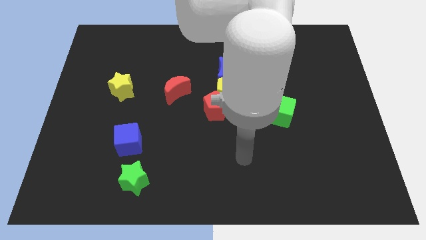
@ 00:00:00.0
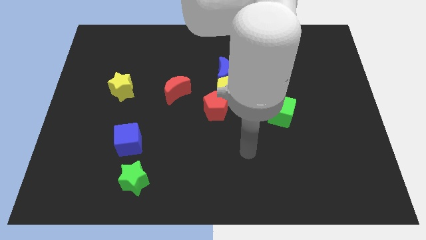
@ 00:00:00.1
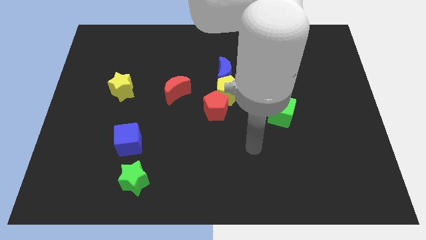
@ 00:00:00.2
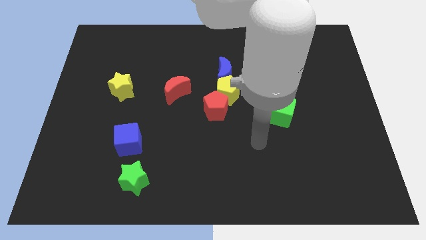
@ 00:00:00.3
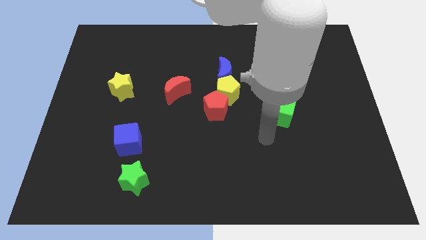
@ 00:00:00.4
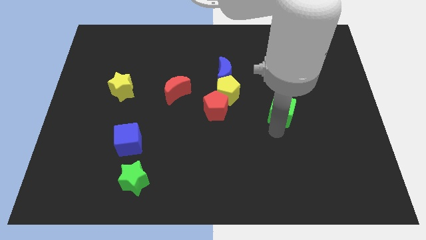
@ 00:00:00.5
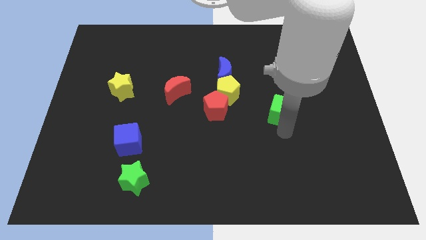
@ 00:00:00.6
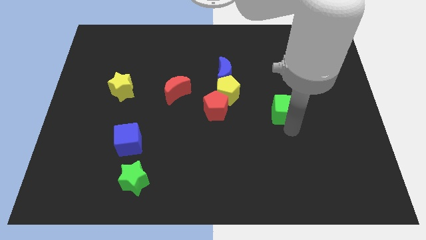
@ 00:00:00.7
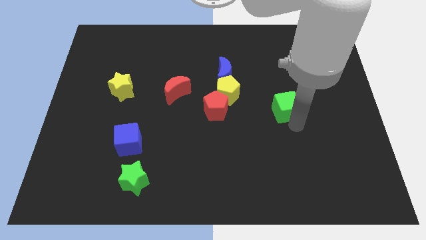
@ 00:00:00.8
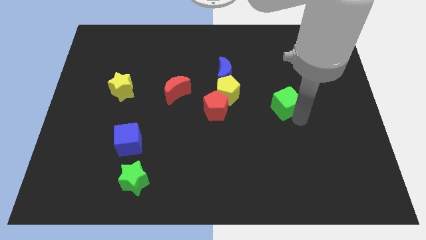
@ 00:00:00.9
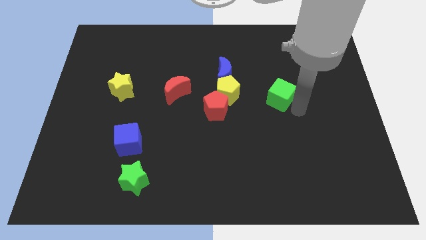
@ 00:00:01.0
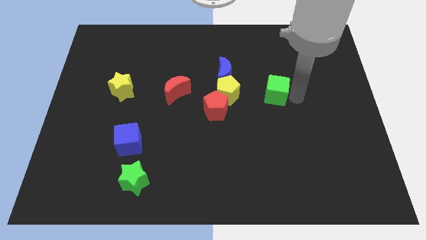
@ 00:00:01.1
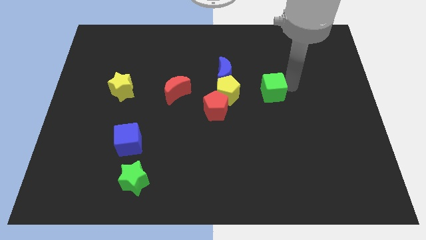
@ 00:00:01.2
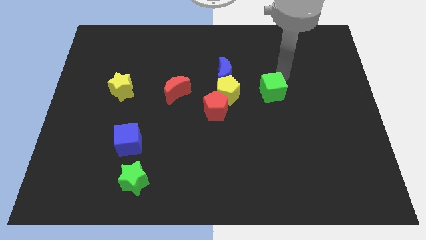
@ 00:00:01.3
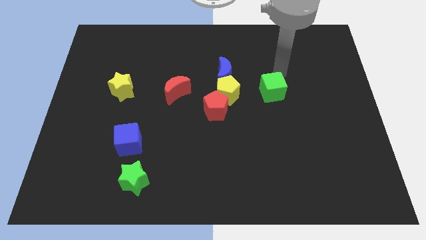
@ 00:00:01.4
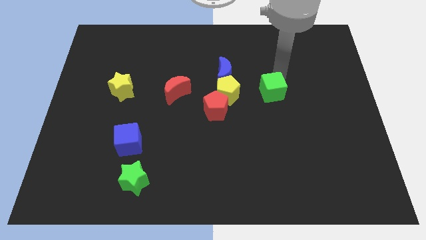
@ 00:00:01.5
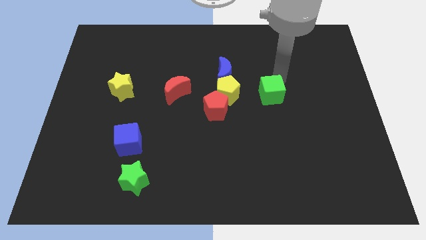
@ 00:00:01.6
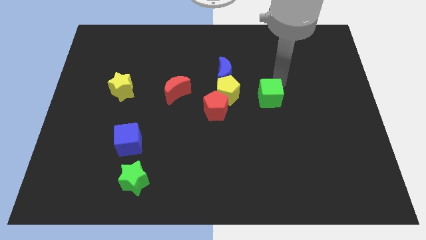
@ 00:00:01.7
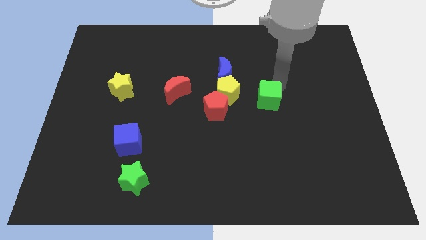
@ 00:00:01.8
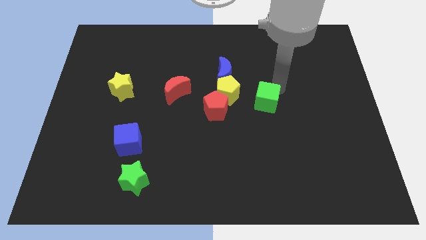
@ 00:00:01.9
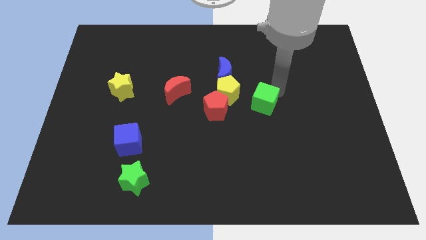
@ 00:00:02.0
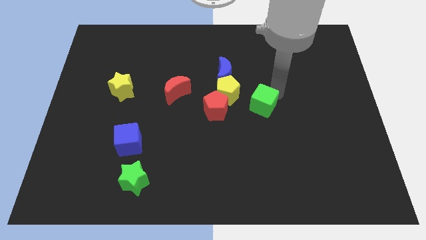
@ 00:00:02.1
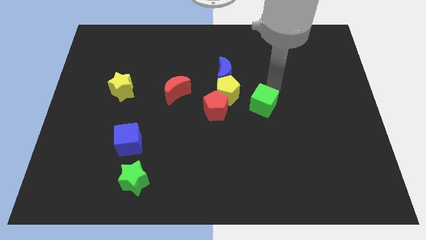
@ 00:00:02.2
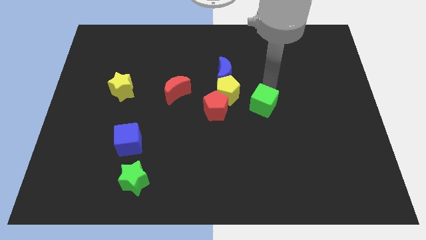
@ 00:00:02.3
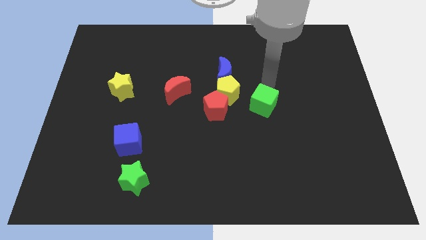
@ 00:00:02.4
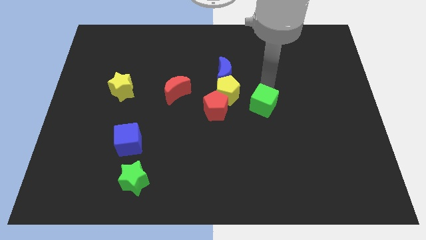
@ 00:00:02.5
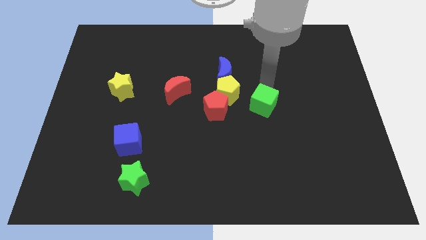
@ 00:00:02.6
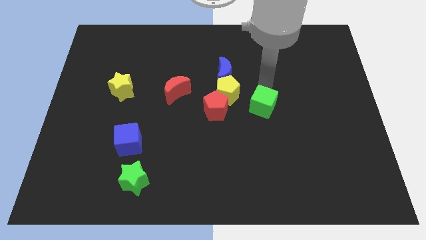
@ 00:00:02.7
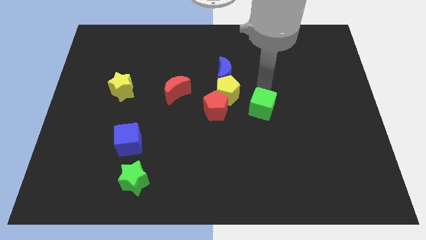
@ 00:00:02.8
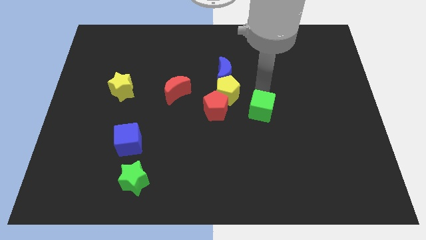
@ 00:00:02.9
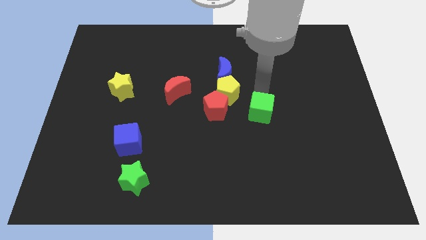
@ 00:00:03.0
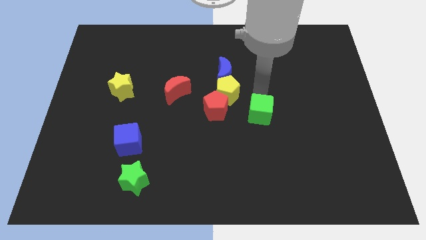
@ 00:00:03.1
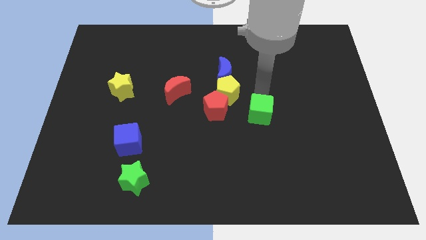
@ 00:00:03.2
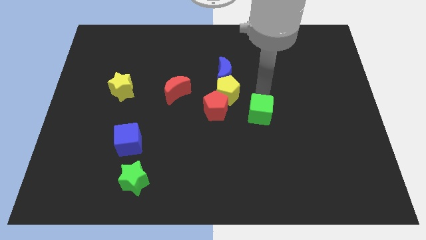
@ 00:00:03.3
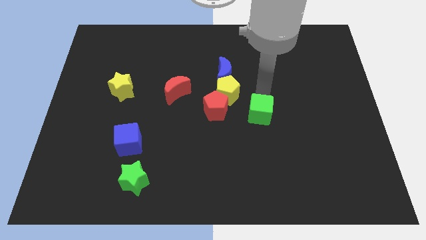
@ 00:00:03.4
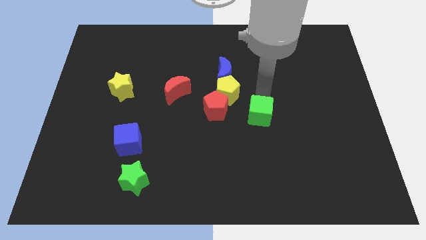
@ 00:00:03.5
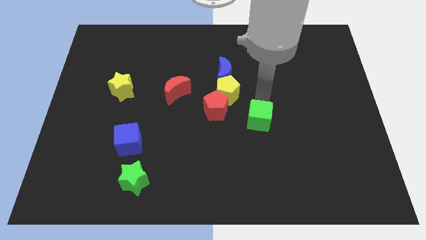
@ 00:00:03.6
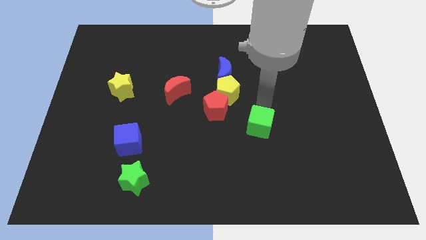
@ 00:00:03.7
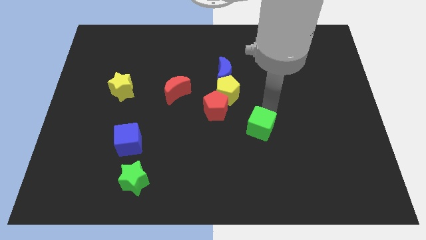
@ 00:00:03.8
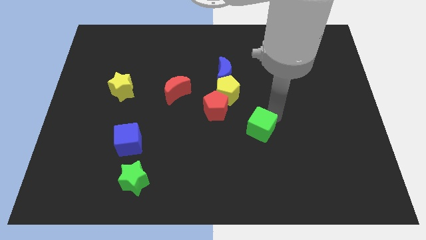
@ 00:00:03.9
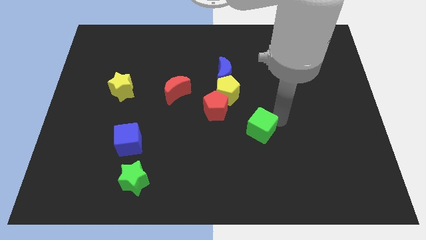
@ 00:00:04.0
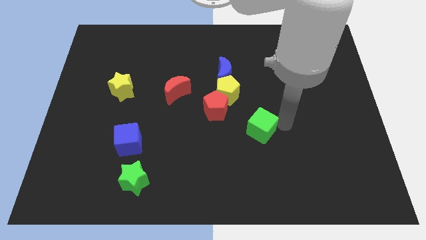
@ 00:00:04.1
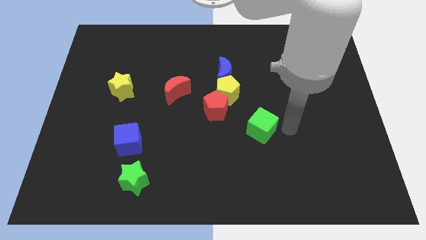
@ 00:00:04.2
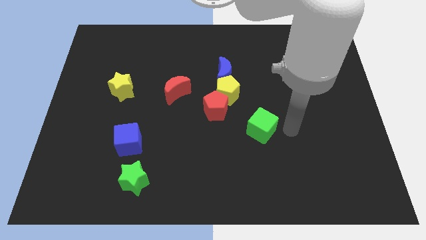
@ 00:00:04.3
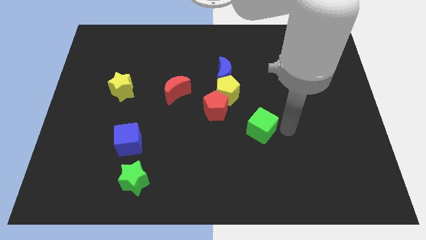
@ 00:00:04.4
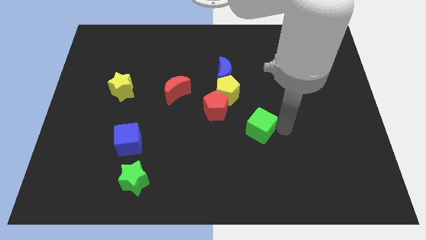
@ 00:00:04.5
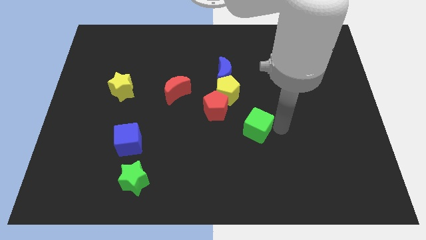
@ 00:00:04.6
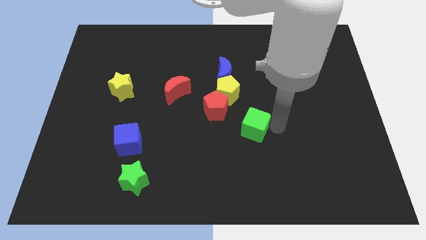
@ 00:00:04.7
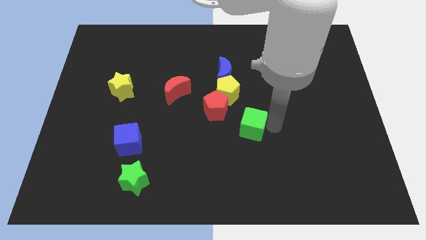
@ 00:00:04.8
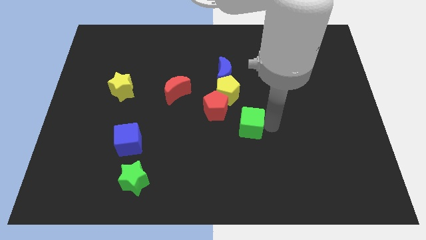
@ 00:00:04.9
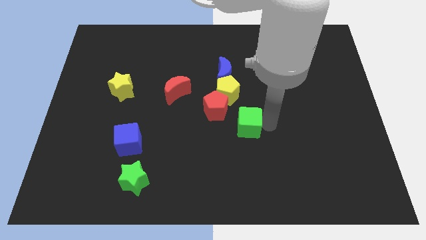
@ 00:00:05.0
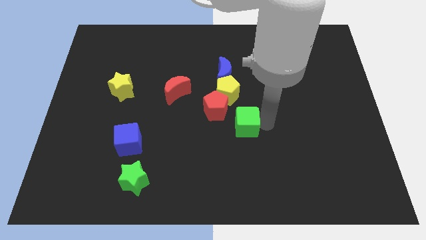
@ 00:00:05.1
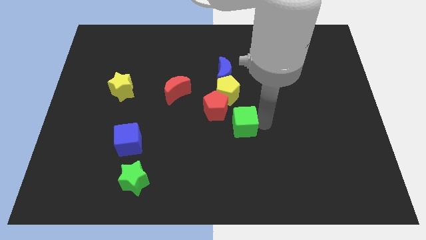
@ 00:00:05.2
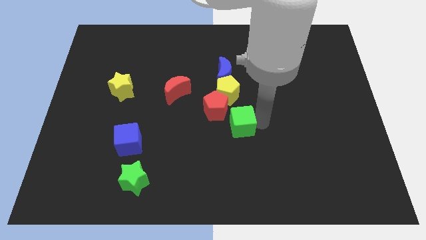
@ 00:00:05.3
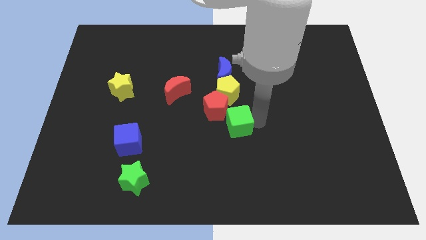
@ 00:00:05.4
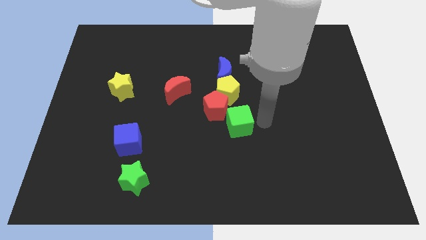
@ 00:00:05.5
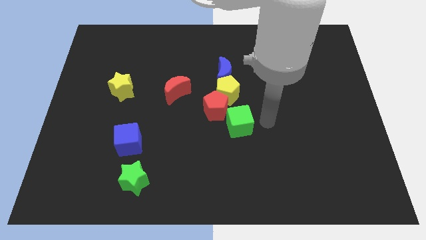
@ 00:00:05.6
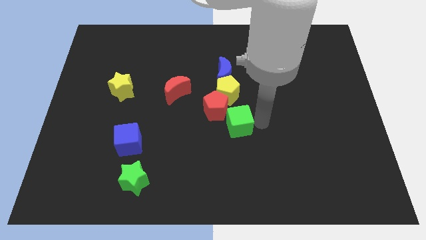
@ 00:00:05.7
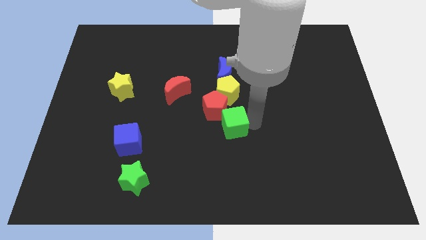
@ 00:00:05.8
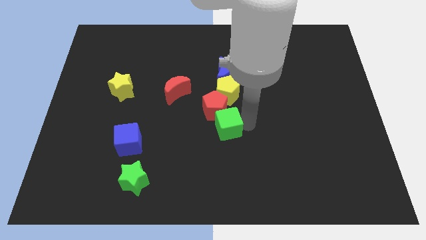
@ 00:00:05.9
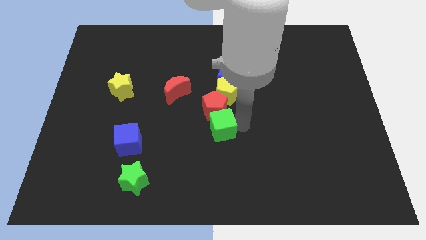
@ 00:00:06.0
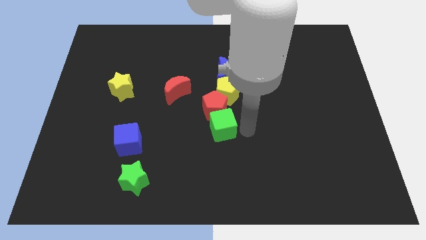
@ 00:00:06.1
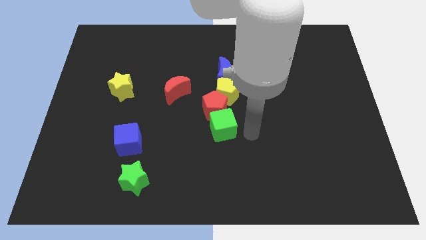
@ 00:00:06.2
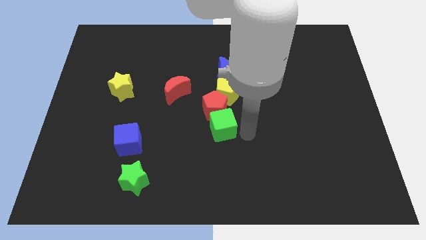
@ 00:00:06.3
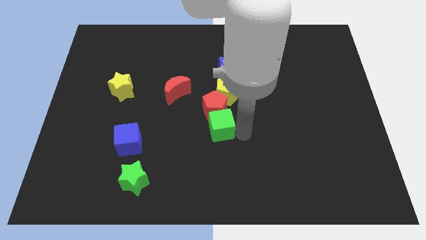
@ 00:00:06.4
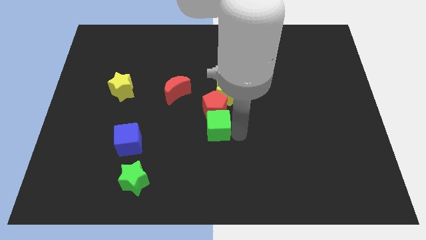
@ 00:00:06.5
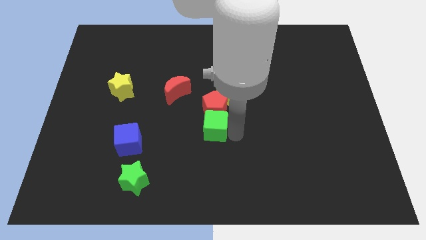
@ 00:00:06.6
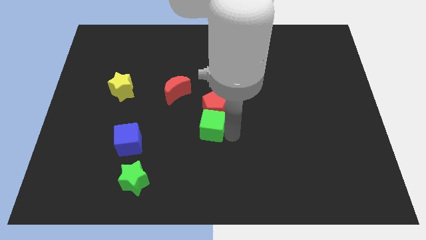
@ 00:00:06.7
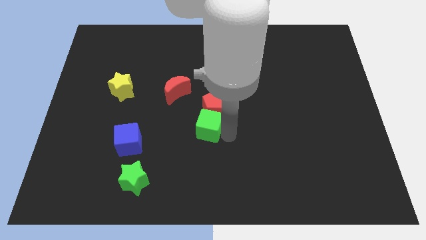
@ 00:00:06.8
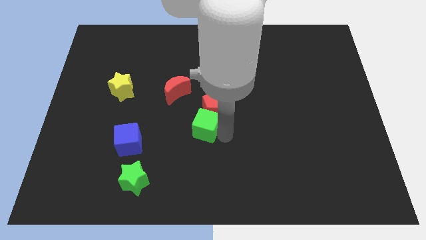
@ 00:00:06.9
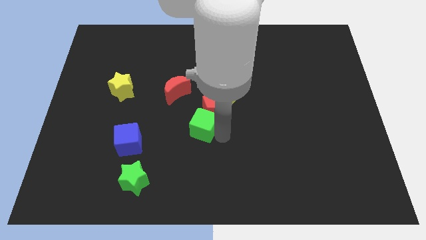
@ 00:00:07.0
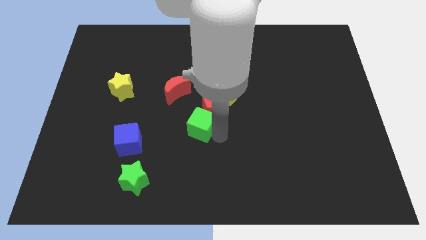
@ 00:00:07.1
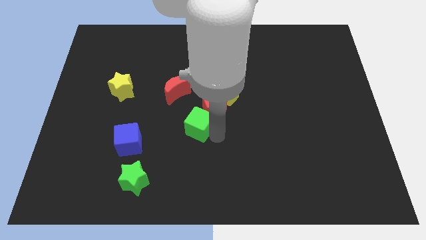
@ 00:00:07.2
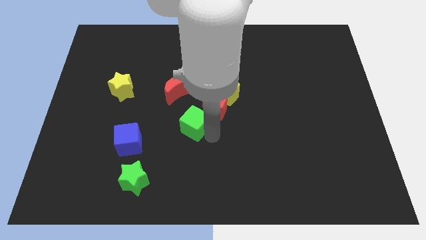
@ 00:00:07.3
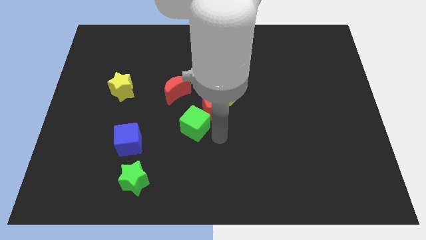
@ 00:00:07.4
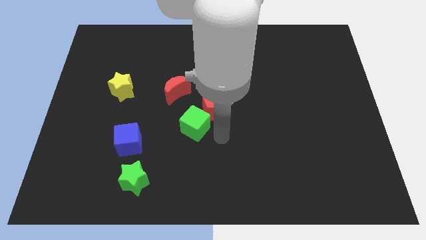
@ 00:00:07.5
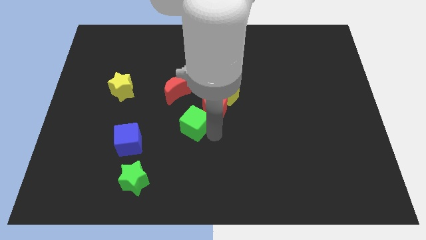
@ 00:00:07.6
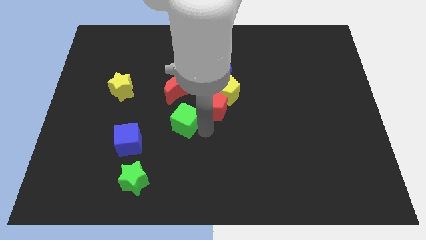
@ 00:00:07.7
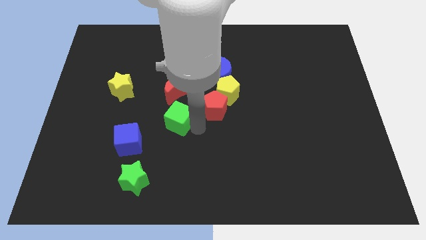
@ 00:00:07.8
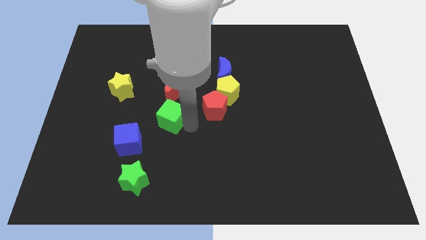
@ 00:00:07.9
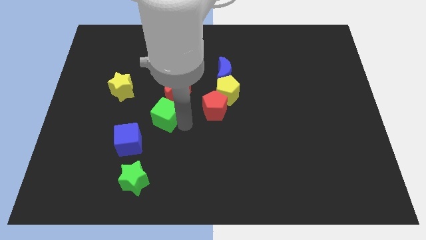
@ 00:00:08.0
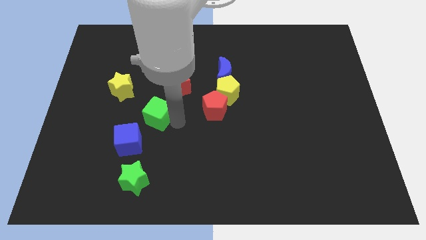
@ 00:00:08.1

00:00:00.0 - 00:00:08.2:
push the green cube to the bottom right of the yellow star
